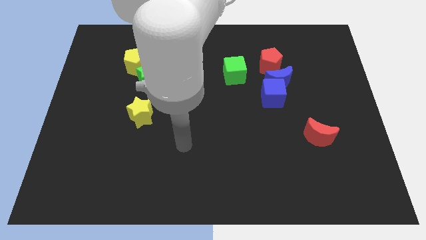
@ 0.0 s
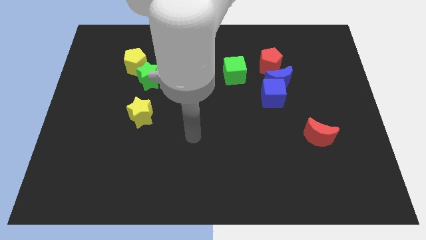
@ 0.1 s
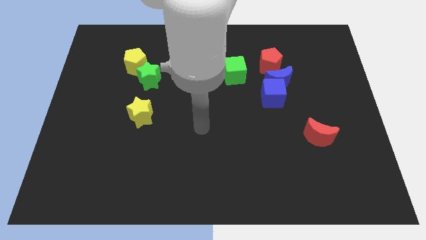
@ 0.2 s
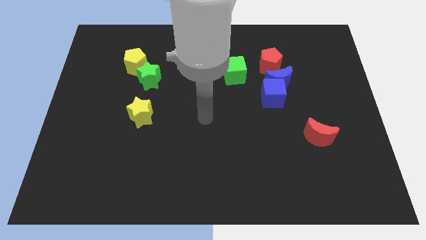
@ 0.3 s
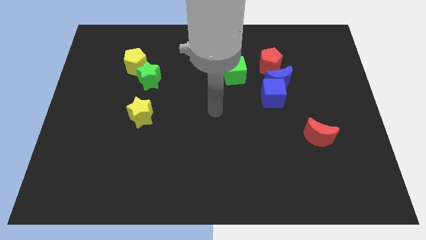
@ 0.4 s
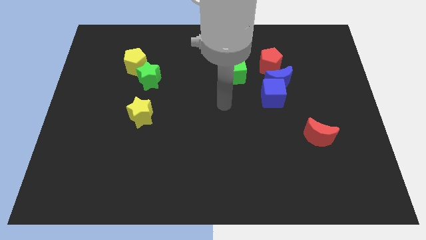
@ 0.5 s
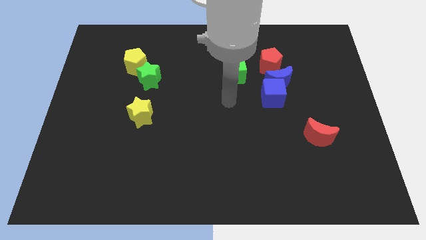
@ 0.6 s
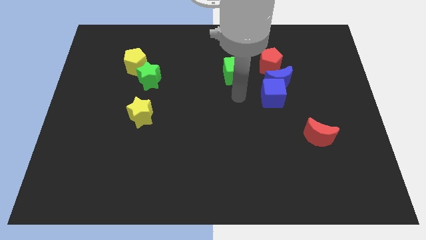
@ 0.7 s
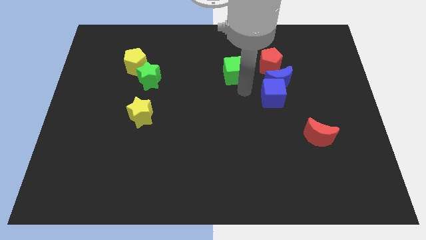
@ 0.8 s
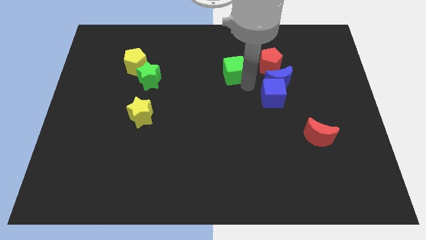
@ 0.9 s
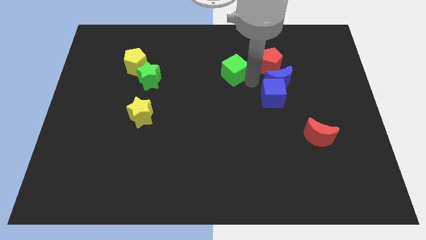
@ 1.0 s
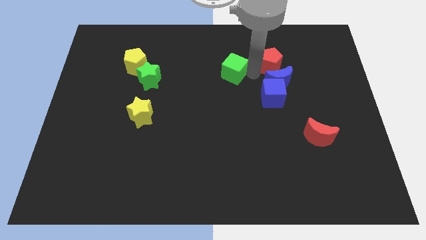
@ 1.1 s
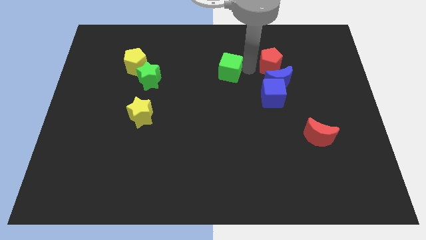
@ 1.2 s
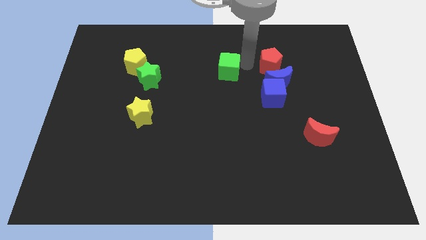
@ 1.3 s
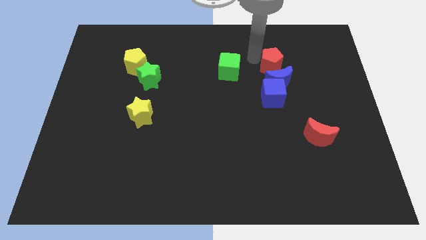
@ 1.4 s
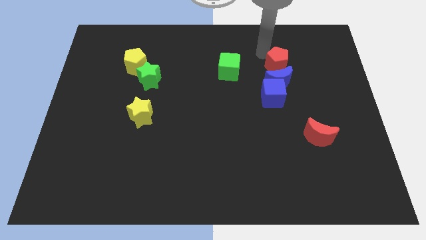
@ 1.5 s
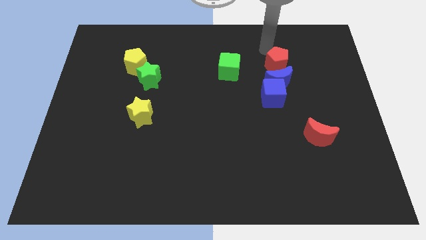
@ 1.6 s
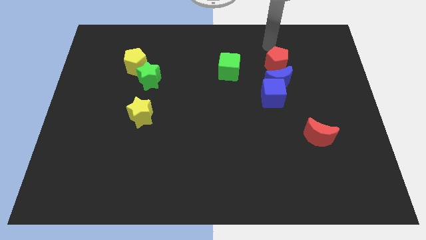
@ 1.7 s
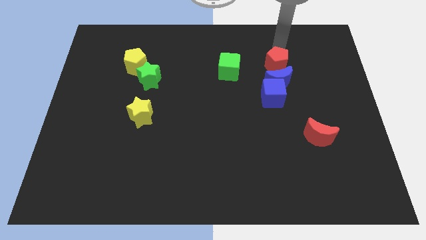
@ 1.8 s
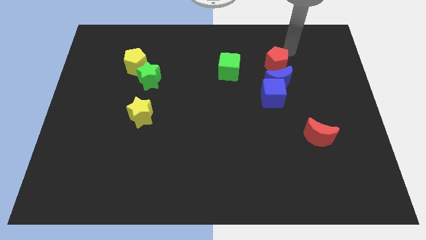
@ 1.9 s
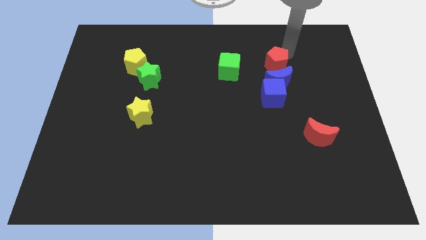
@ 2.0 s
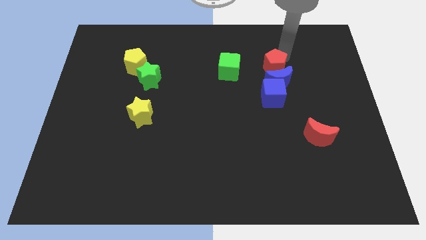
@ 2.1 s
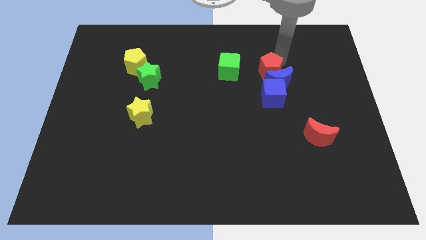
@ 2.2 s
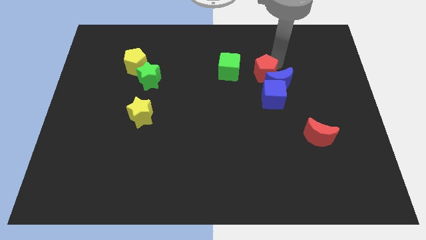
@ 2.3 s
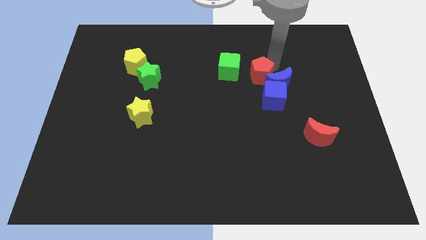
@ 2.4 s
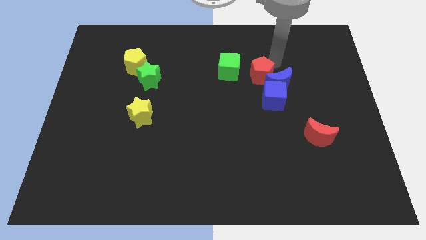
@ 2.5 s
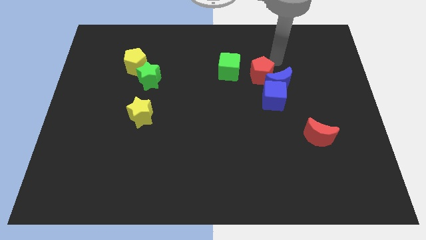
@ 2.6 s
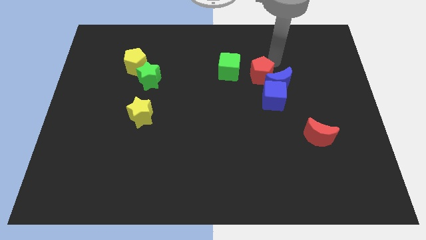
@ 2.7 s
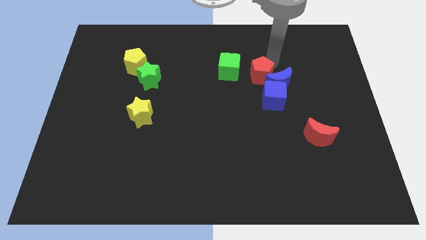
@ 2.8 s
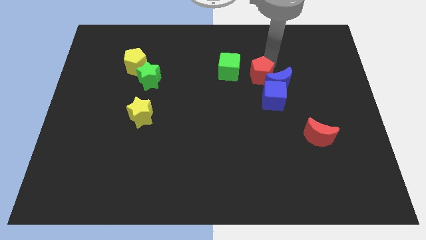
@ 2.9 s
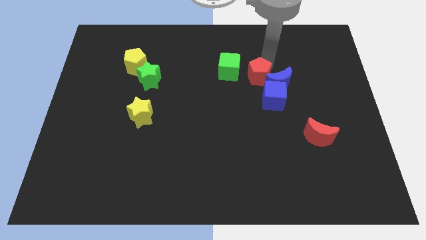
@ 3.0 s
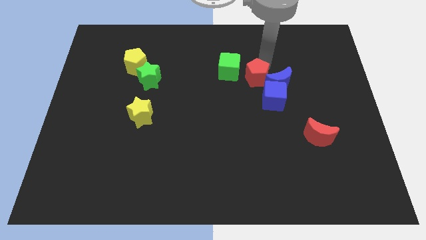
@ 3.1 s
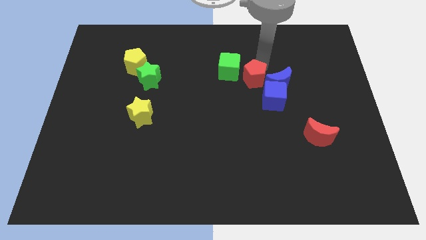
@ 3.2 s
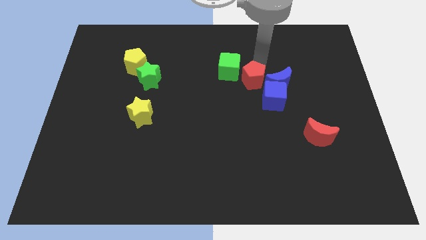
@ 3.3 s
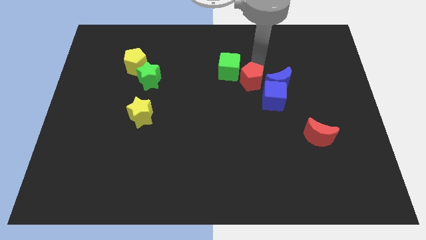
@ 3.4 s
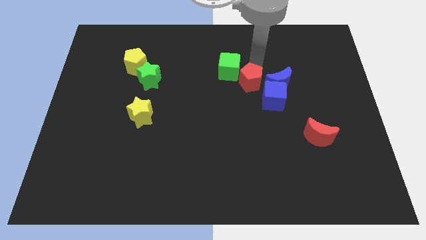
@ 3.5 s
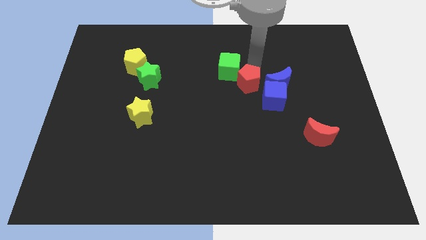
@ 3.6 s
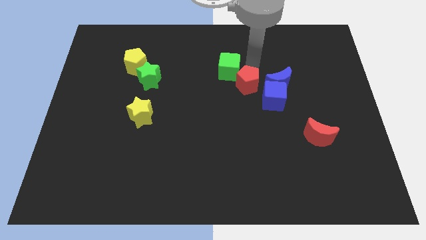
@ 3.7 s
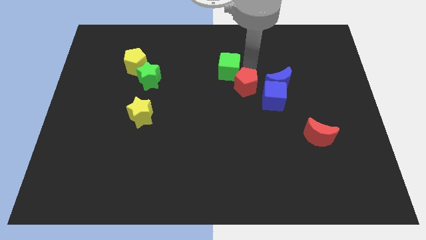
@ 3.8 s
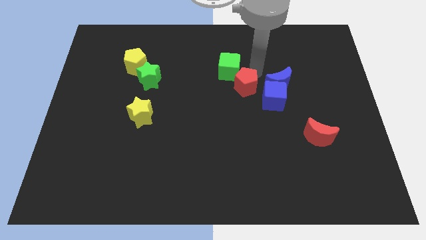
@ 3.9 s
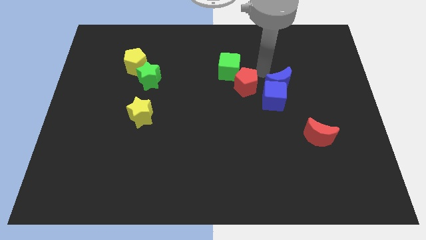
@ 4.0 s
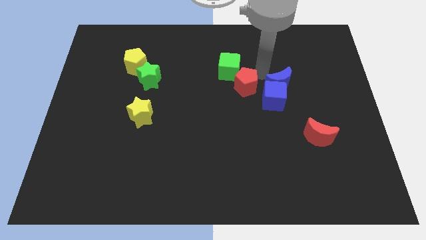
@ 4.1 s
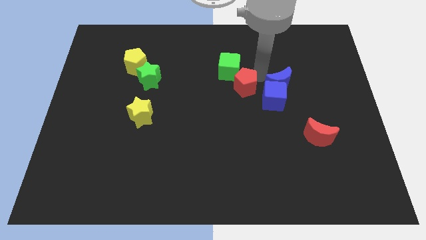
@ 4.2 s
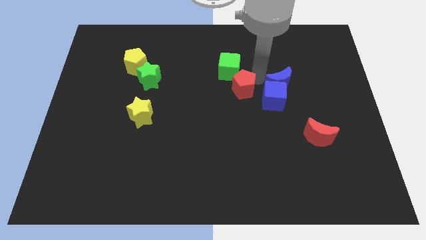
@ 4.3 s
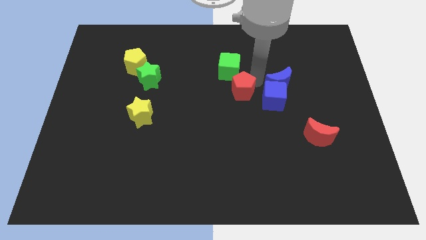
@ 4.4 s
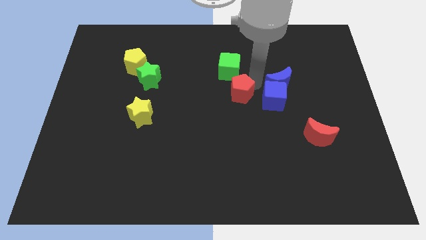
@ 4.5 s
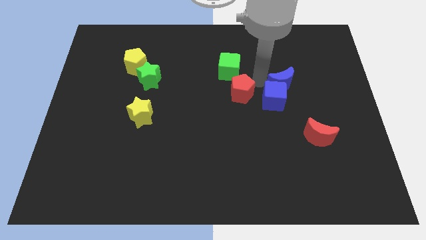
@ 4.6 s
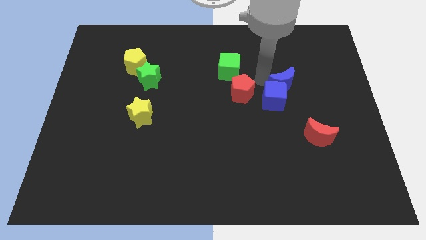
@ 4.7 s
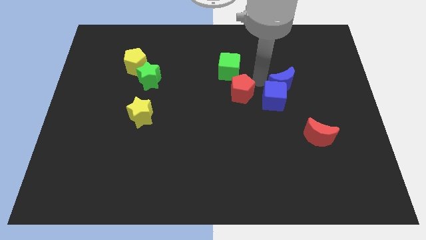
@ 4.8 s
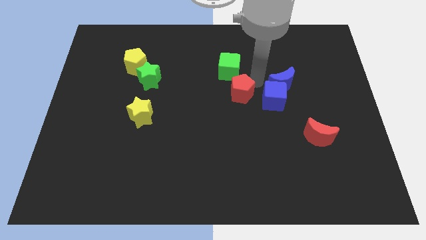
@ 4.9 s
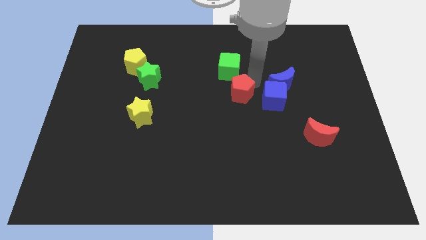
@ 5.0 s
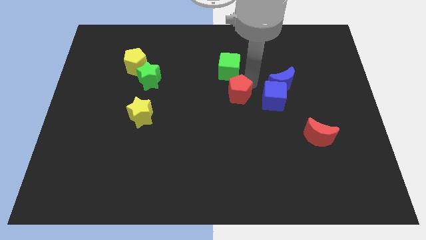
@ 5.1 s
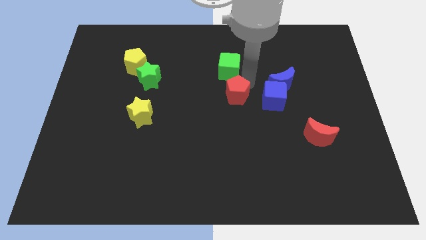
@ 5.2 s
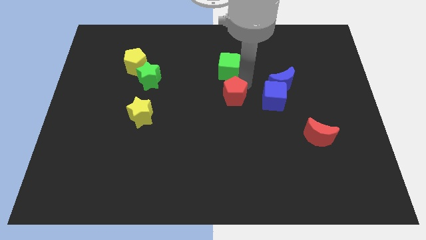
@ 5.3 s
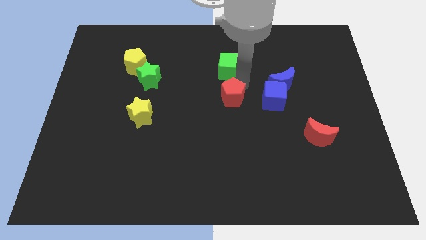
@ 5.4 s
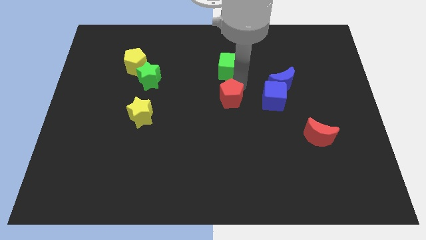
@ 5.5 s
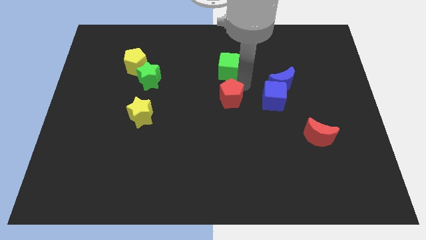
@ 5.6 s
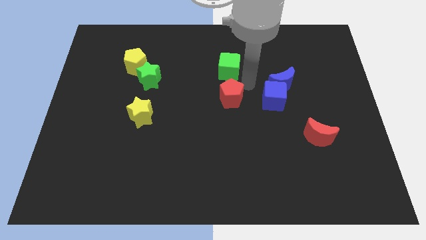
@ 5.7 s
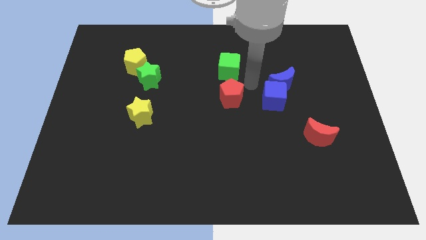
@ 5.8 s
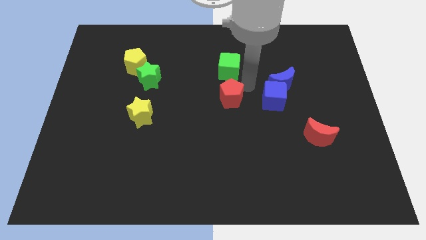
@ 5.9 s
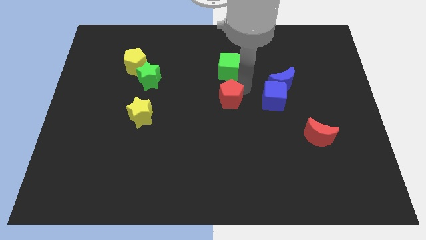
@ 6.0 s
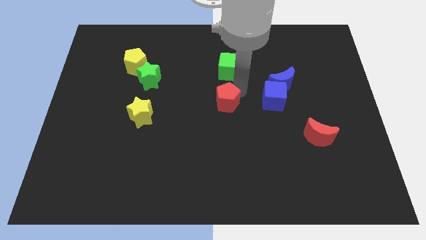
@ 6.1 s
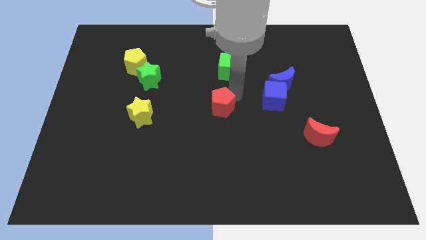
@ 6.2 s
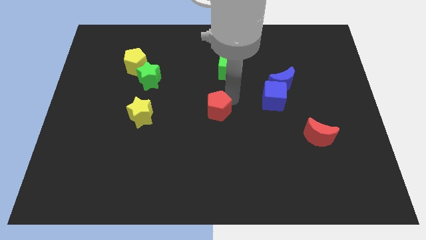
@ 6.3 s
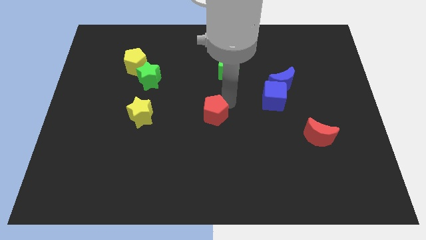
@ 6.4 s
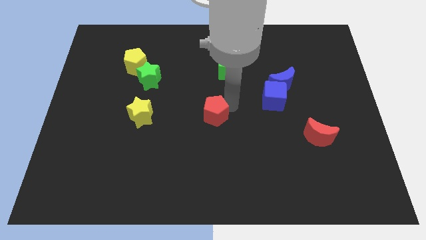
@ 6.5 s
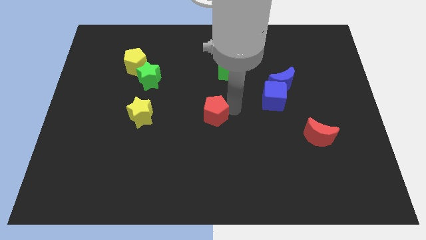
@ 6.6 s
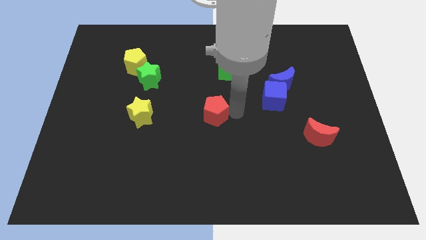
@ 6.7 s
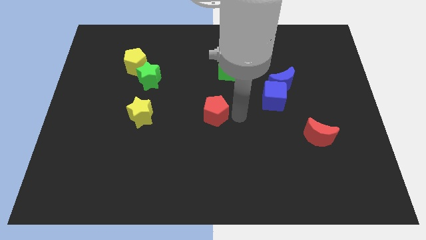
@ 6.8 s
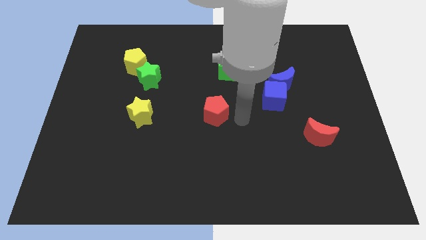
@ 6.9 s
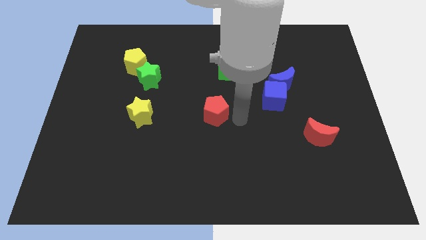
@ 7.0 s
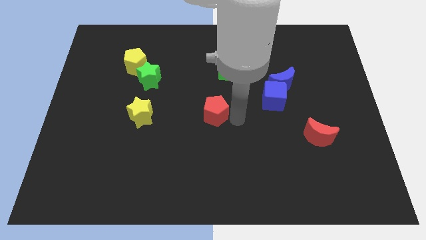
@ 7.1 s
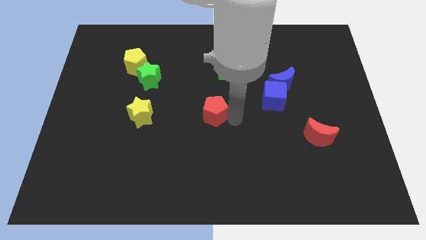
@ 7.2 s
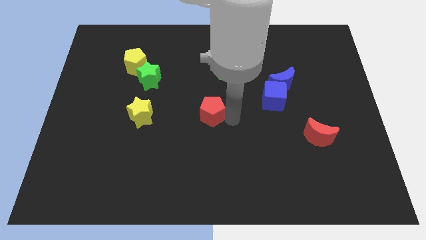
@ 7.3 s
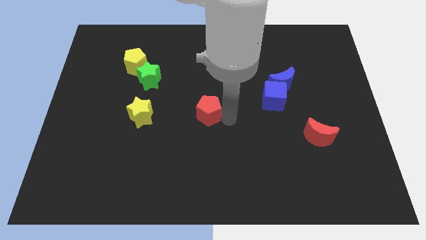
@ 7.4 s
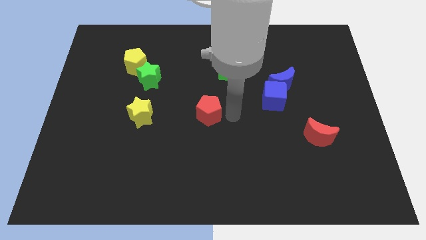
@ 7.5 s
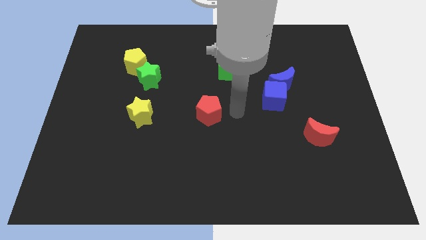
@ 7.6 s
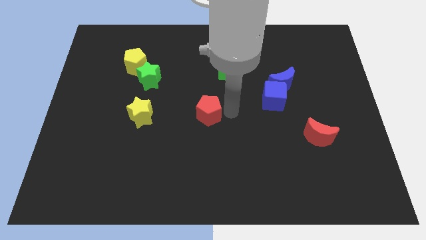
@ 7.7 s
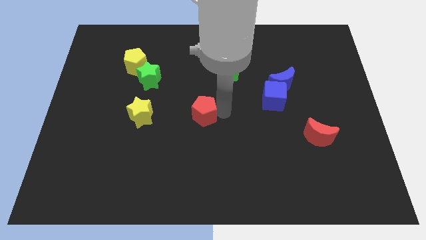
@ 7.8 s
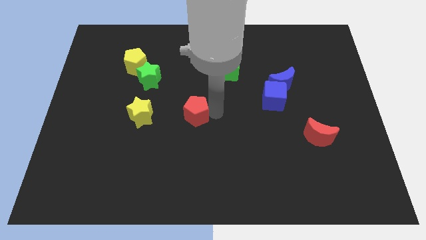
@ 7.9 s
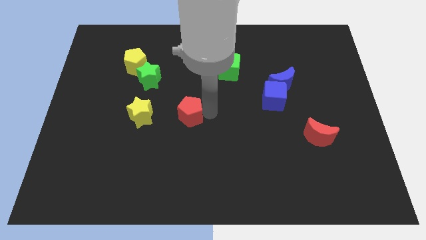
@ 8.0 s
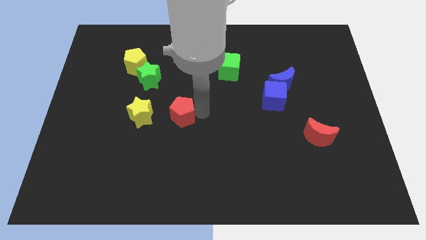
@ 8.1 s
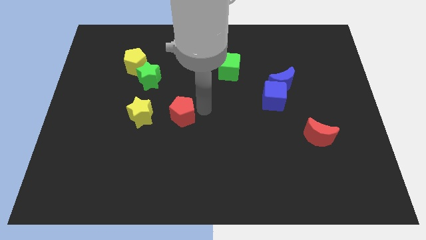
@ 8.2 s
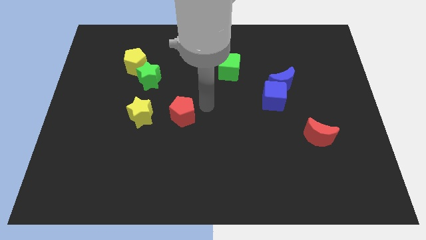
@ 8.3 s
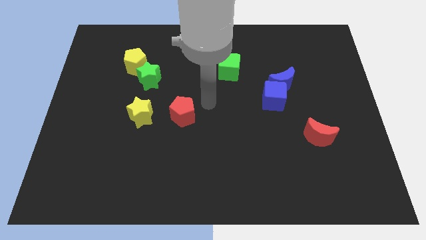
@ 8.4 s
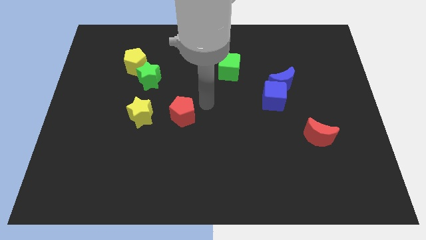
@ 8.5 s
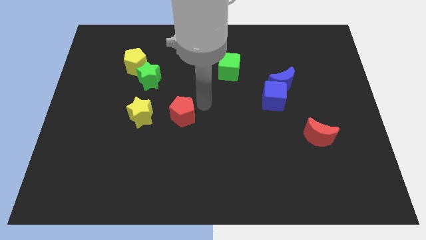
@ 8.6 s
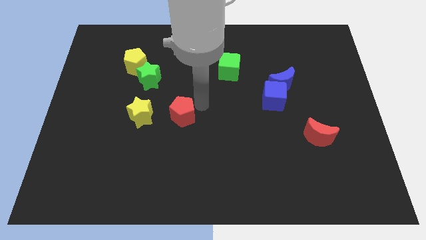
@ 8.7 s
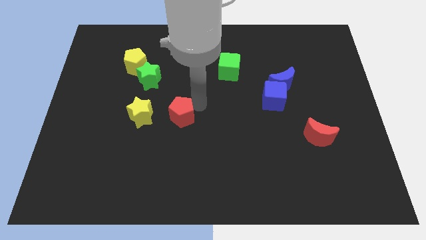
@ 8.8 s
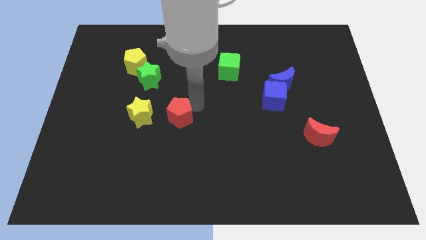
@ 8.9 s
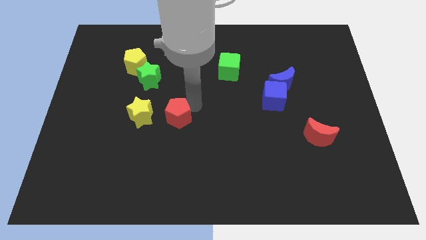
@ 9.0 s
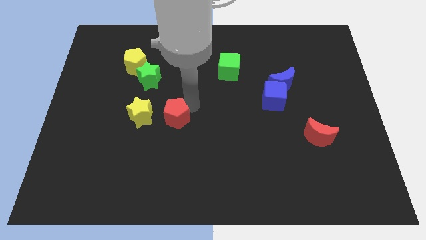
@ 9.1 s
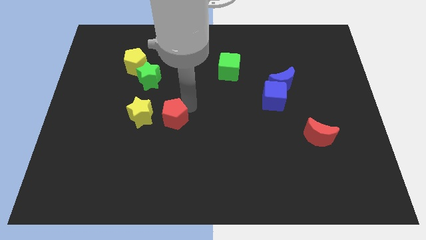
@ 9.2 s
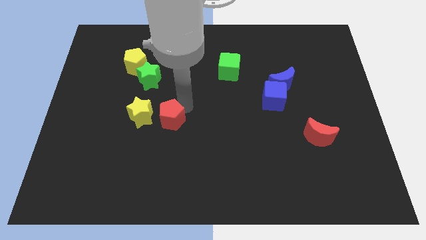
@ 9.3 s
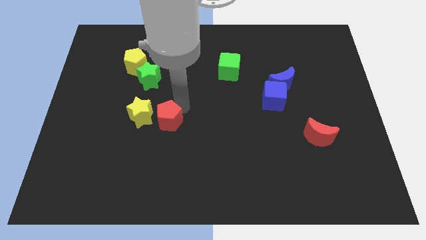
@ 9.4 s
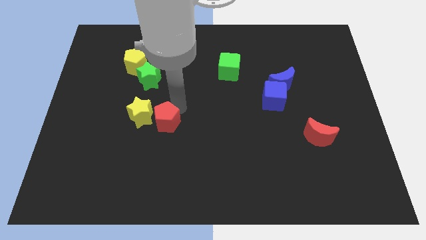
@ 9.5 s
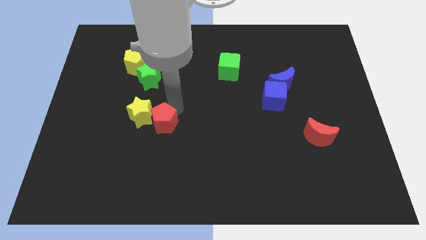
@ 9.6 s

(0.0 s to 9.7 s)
slide the red pentagon to the bottom side of the green star
